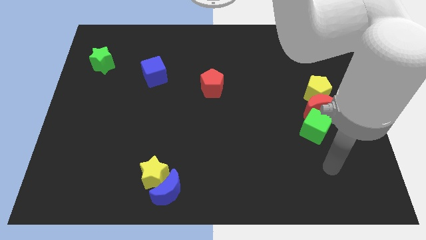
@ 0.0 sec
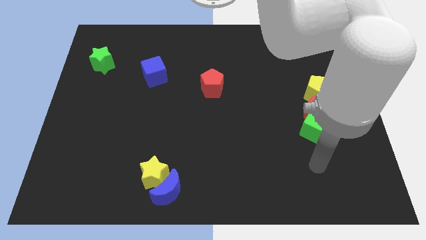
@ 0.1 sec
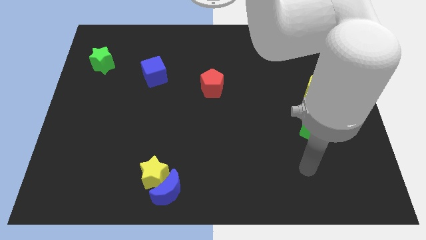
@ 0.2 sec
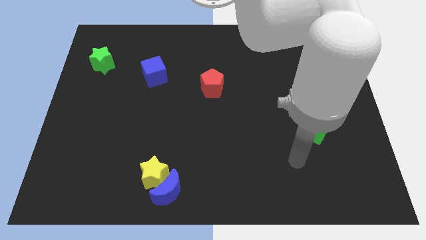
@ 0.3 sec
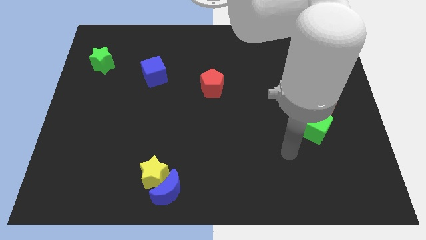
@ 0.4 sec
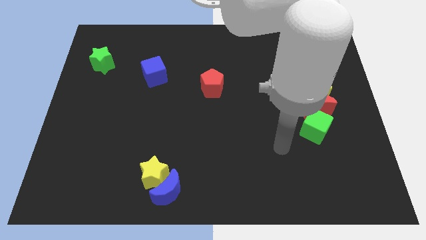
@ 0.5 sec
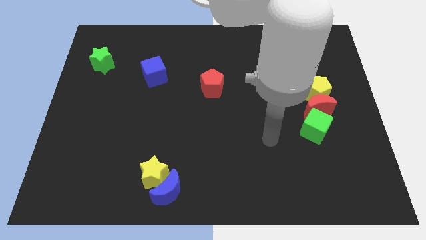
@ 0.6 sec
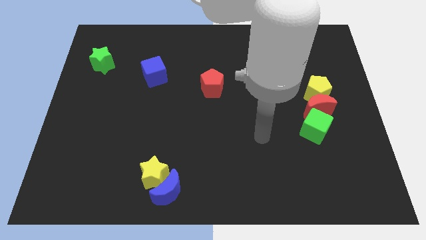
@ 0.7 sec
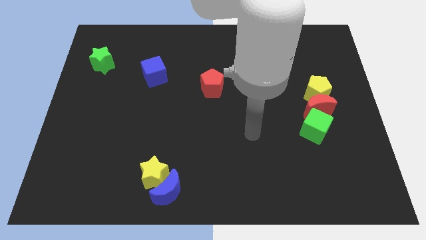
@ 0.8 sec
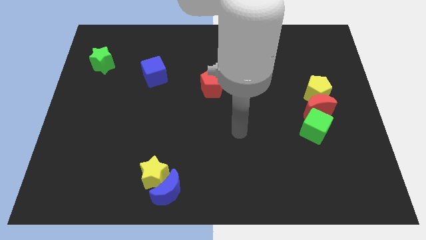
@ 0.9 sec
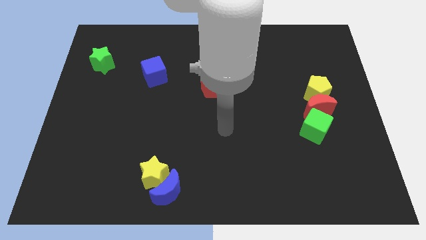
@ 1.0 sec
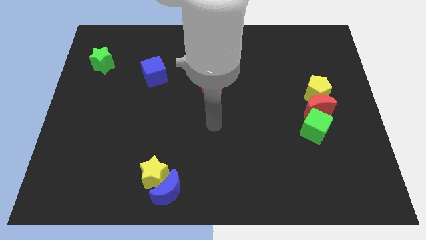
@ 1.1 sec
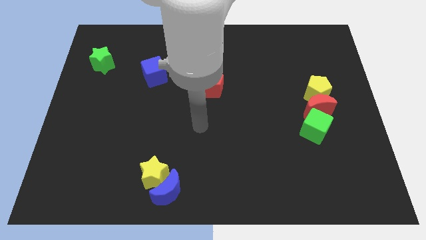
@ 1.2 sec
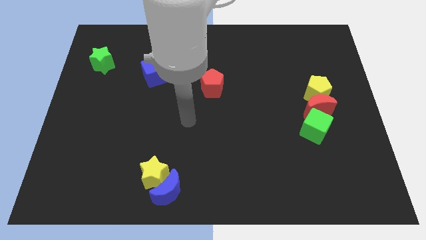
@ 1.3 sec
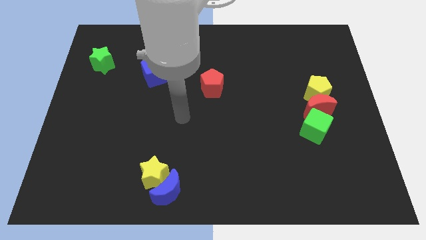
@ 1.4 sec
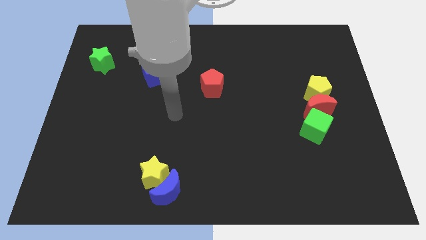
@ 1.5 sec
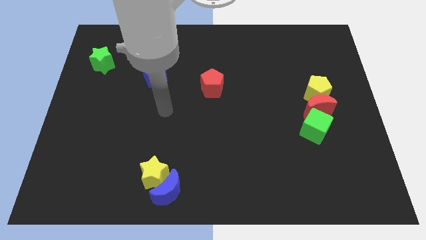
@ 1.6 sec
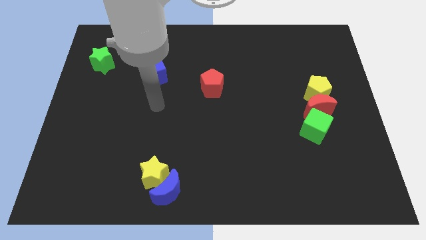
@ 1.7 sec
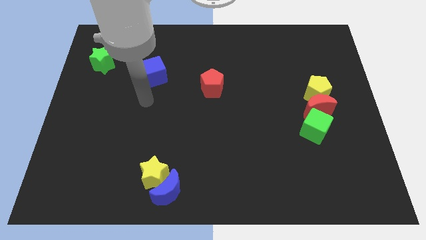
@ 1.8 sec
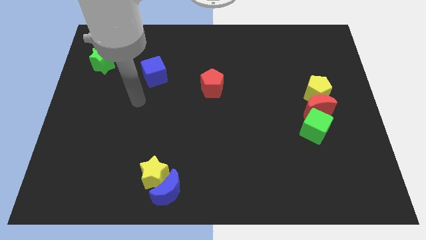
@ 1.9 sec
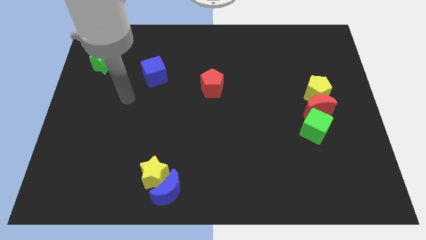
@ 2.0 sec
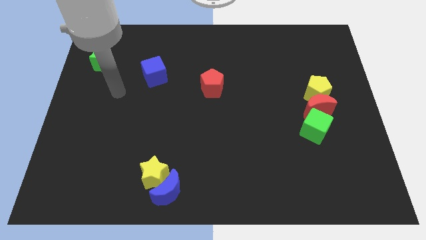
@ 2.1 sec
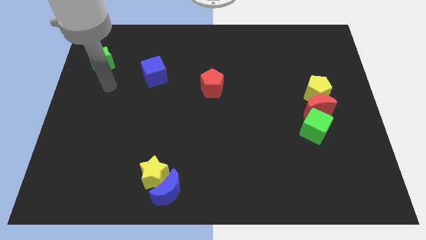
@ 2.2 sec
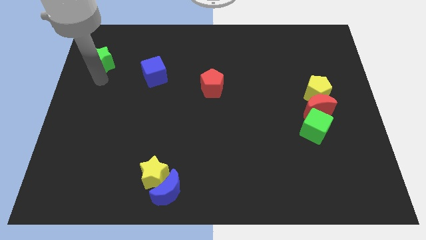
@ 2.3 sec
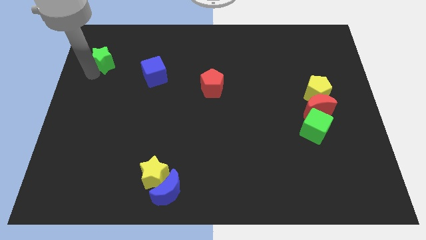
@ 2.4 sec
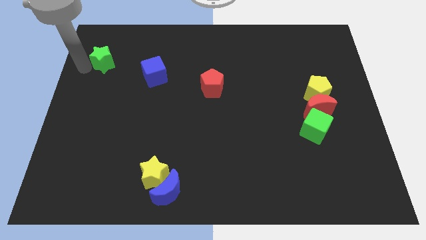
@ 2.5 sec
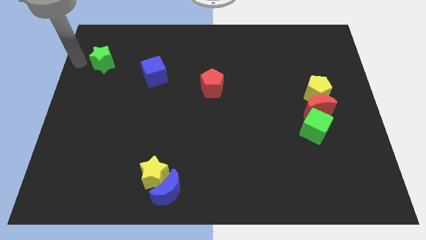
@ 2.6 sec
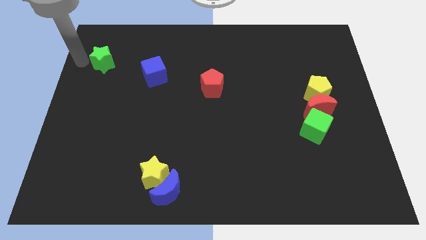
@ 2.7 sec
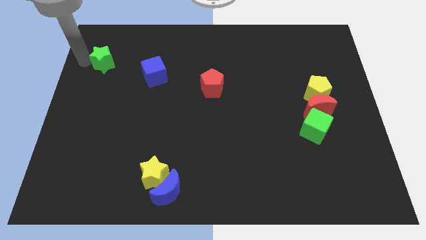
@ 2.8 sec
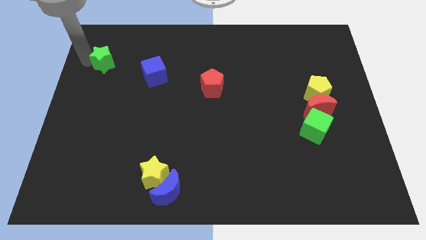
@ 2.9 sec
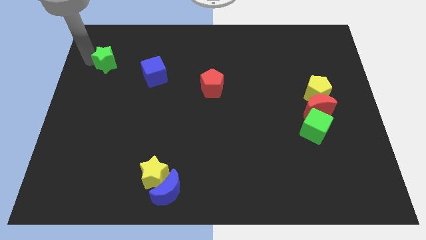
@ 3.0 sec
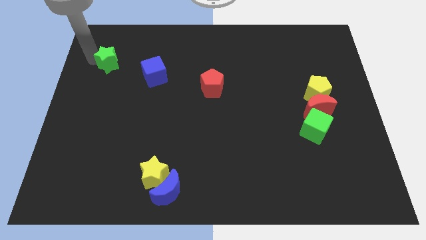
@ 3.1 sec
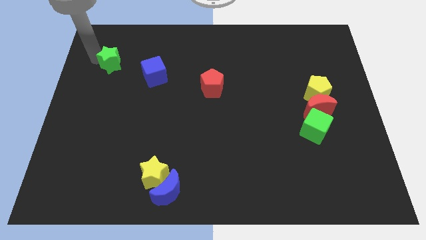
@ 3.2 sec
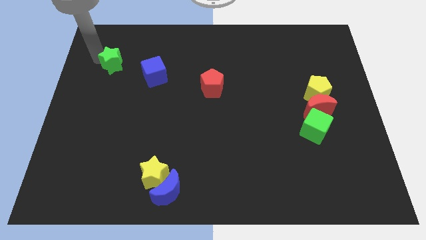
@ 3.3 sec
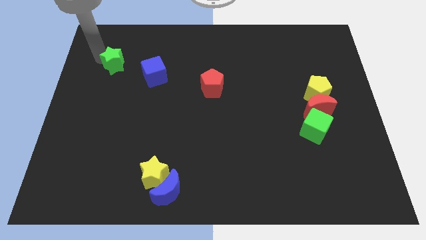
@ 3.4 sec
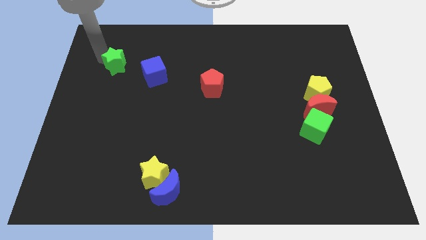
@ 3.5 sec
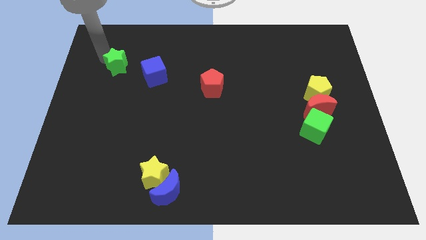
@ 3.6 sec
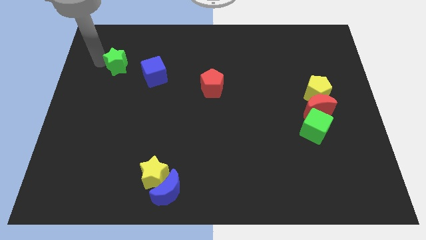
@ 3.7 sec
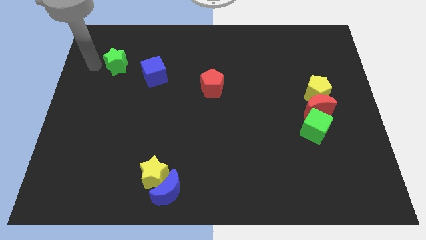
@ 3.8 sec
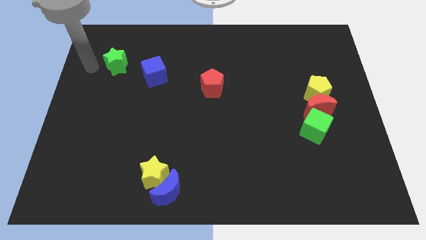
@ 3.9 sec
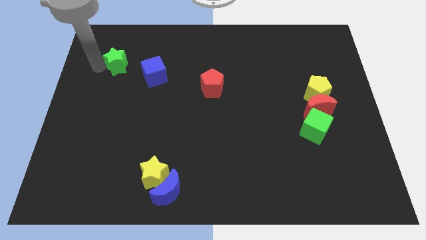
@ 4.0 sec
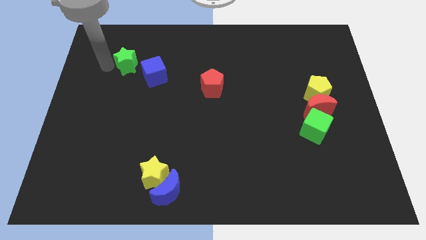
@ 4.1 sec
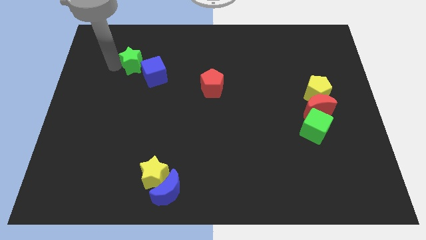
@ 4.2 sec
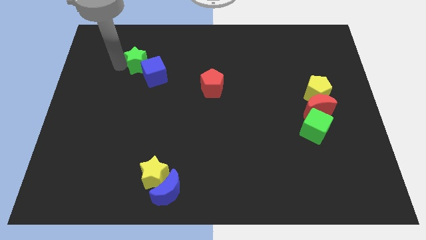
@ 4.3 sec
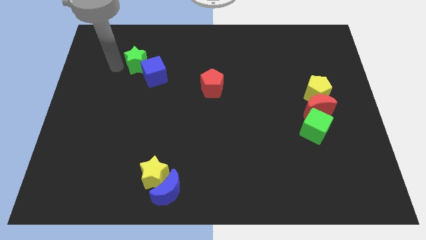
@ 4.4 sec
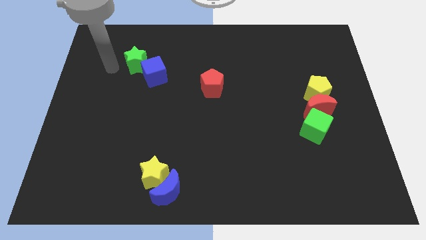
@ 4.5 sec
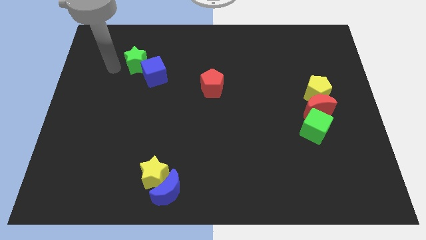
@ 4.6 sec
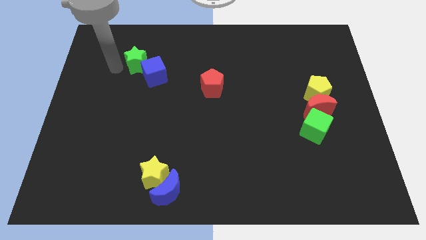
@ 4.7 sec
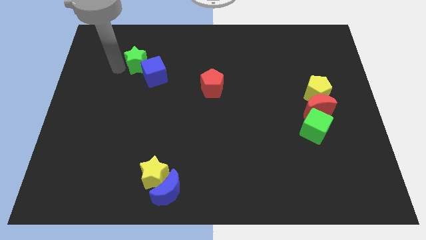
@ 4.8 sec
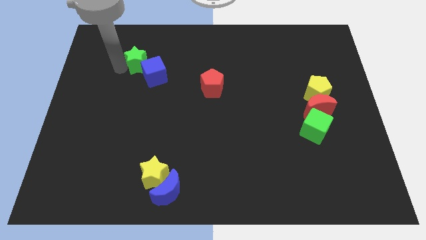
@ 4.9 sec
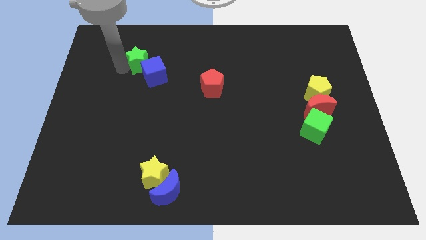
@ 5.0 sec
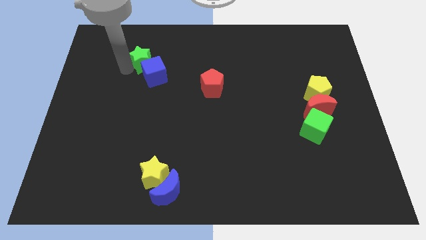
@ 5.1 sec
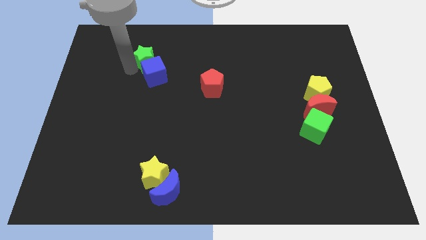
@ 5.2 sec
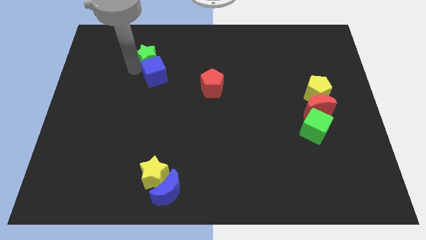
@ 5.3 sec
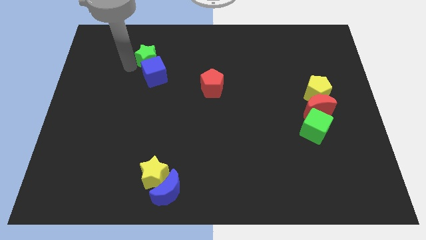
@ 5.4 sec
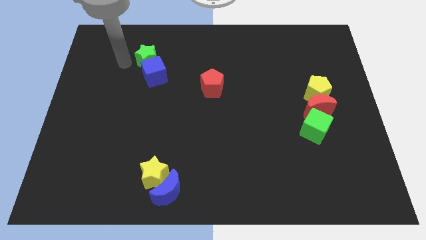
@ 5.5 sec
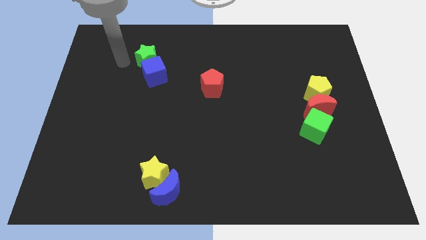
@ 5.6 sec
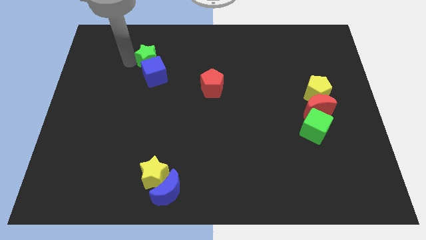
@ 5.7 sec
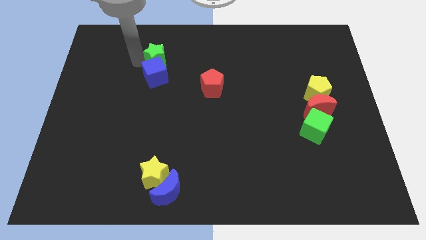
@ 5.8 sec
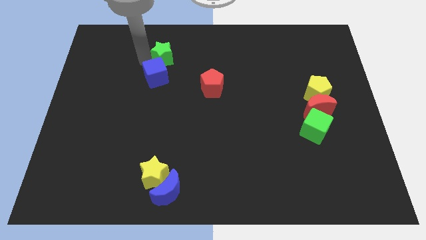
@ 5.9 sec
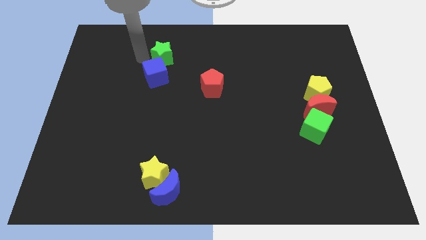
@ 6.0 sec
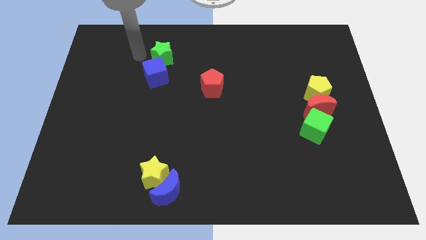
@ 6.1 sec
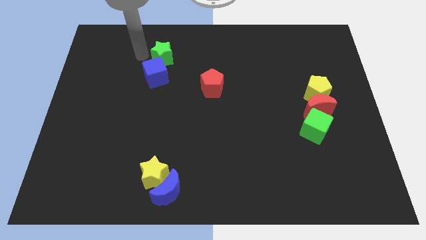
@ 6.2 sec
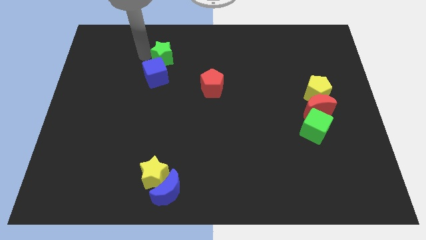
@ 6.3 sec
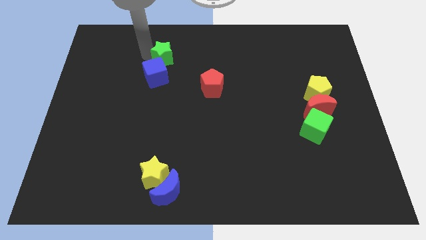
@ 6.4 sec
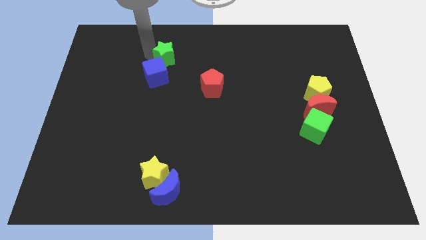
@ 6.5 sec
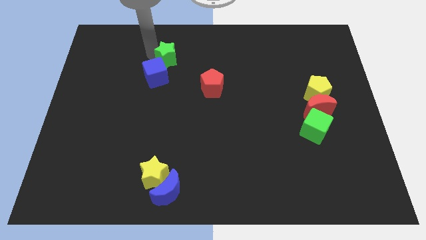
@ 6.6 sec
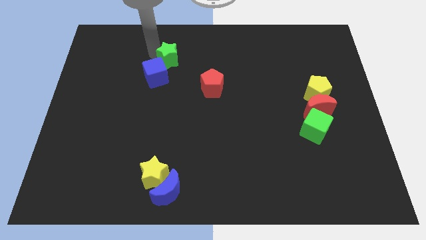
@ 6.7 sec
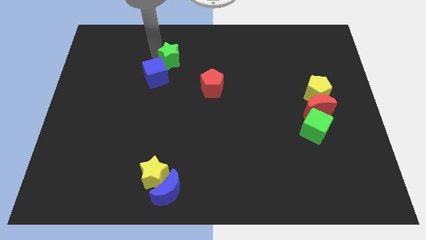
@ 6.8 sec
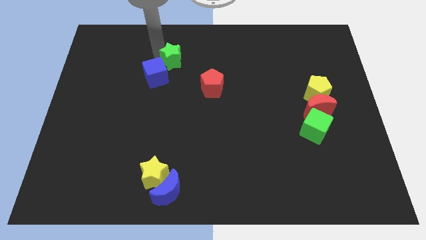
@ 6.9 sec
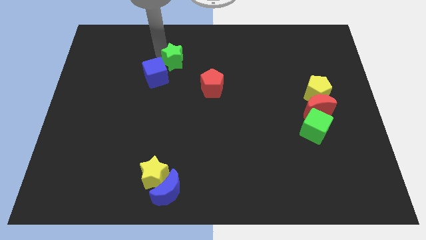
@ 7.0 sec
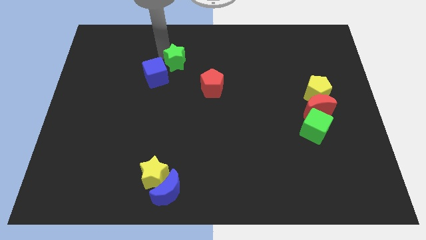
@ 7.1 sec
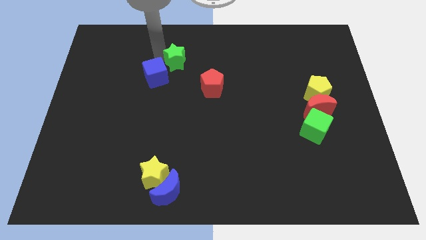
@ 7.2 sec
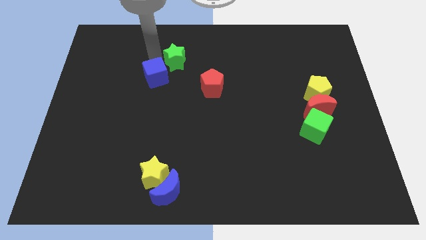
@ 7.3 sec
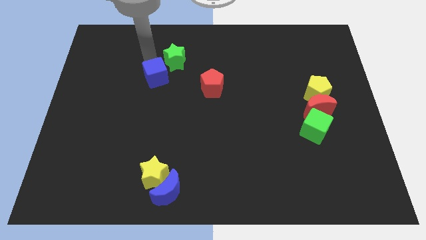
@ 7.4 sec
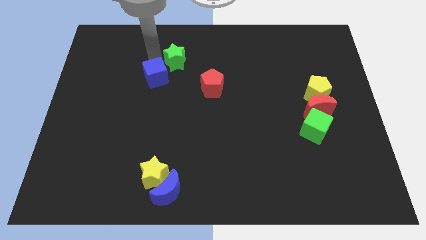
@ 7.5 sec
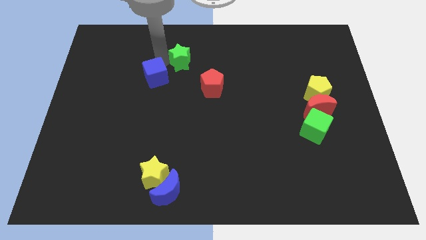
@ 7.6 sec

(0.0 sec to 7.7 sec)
move the green star to the right
